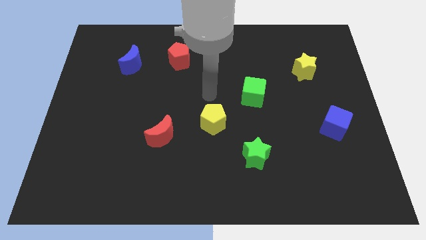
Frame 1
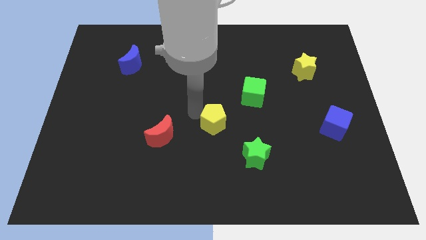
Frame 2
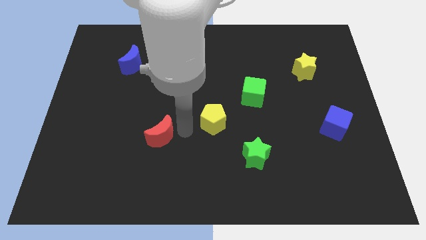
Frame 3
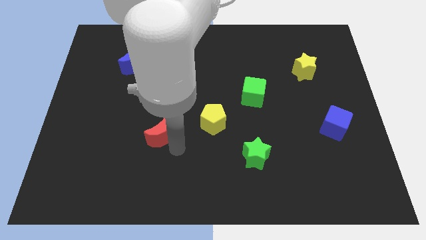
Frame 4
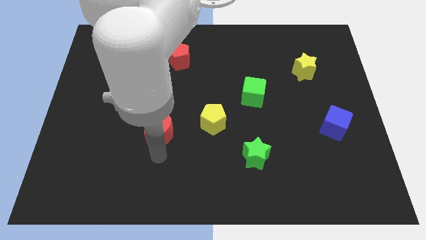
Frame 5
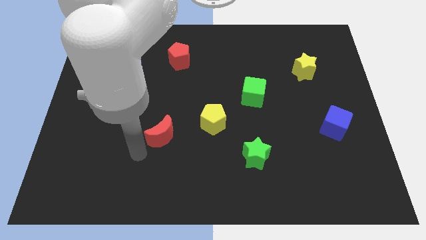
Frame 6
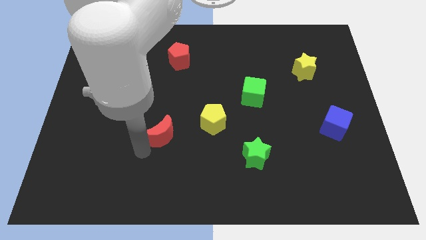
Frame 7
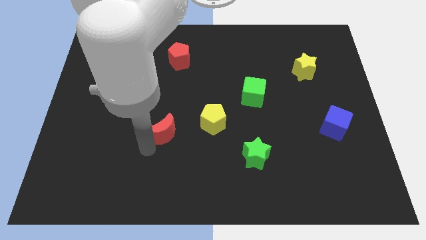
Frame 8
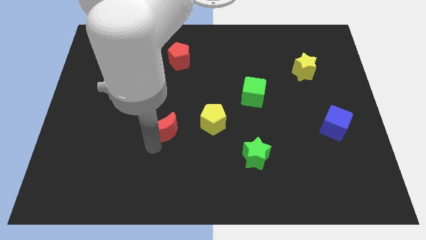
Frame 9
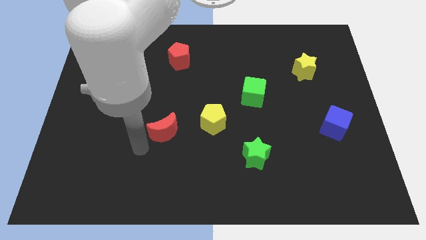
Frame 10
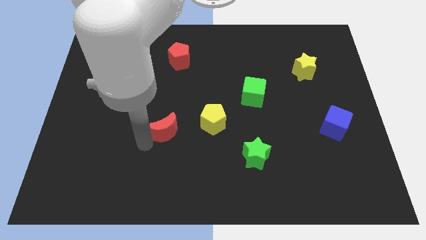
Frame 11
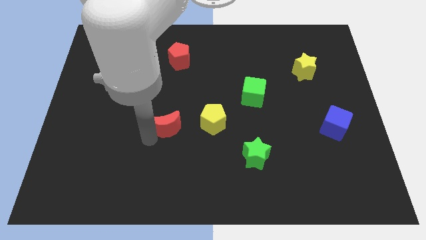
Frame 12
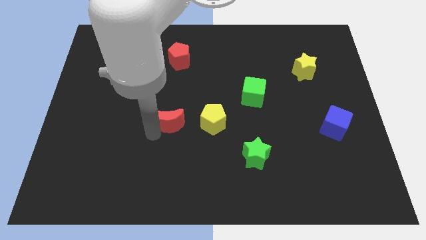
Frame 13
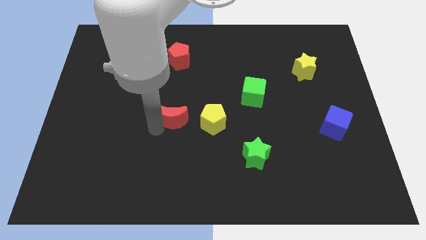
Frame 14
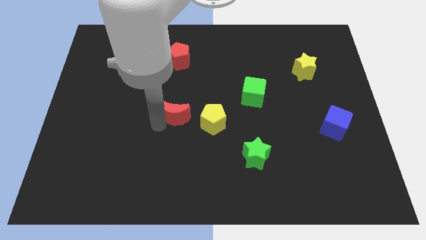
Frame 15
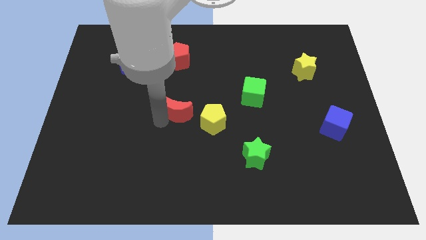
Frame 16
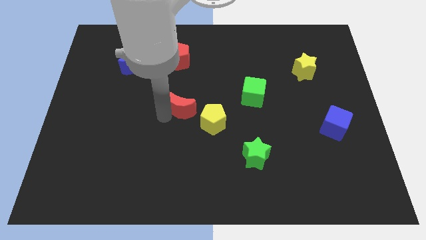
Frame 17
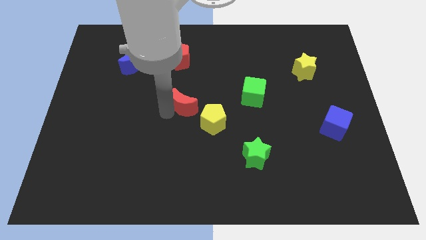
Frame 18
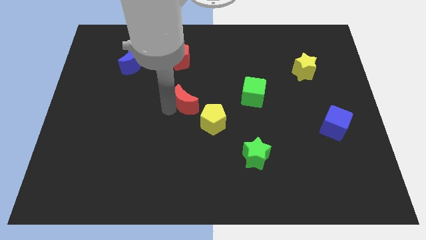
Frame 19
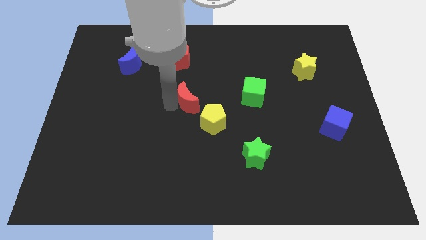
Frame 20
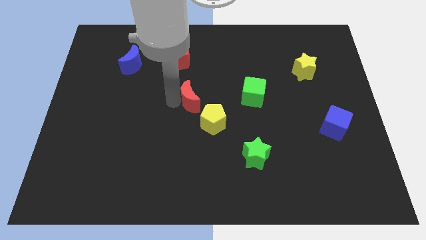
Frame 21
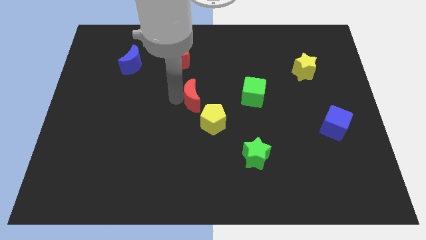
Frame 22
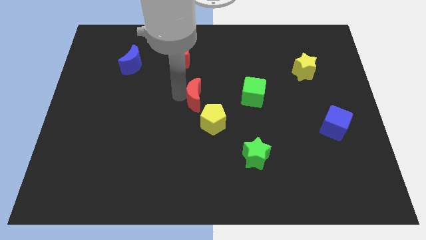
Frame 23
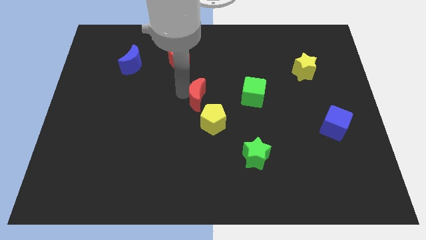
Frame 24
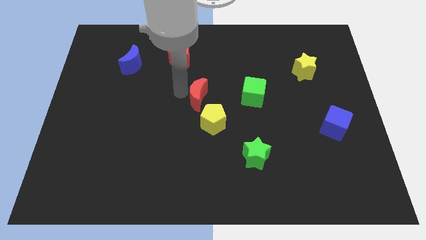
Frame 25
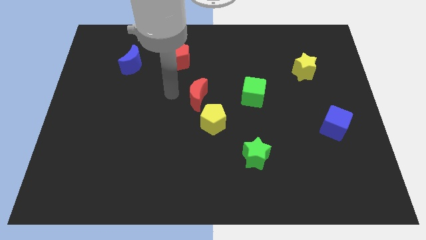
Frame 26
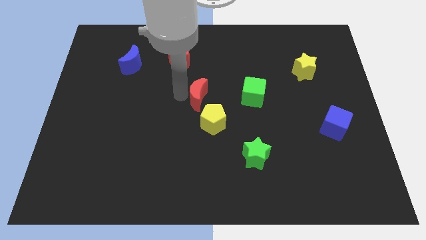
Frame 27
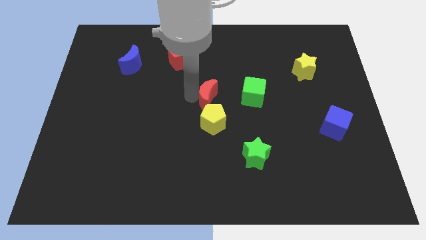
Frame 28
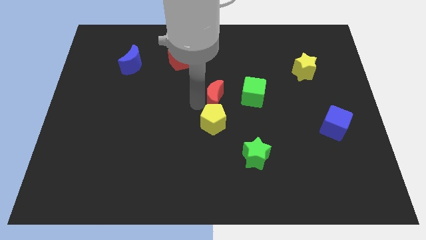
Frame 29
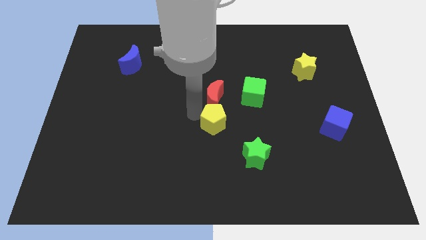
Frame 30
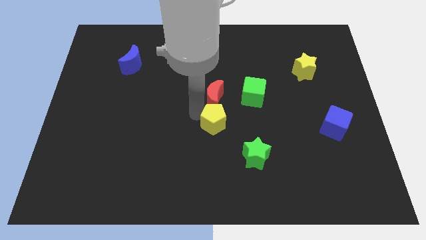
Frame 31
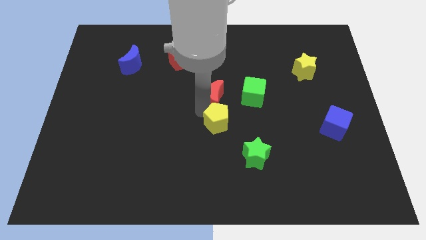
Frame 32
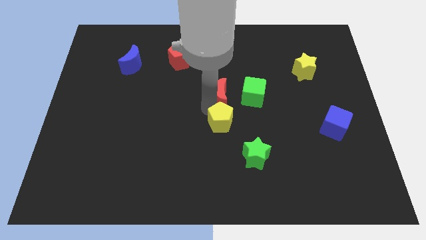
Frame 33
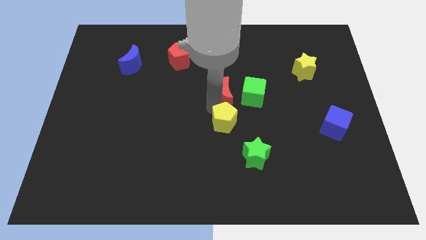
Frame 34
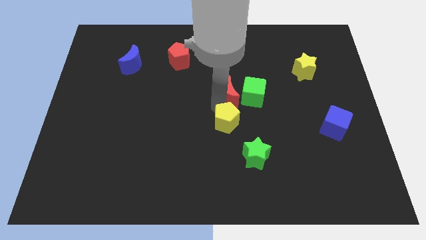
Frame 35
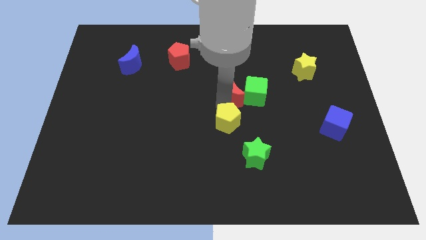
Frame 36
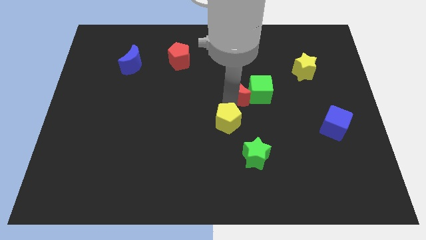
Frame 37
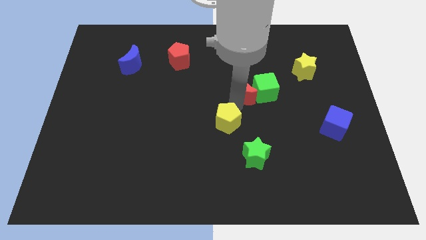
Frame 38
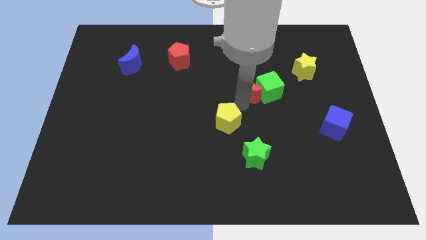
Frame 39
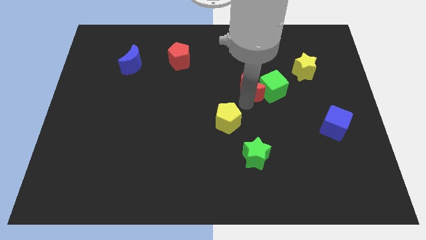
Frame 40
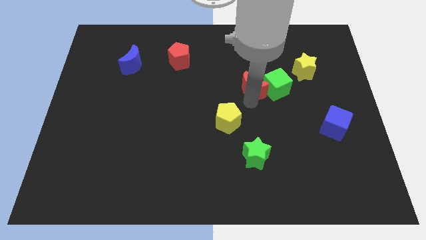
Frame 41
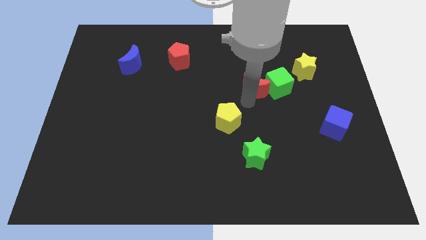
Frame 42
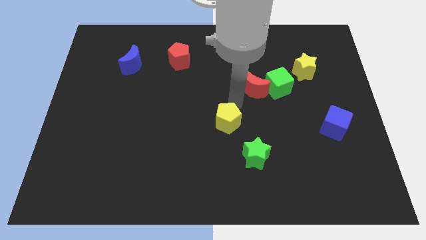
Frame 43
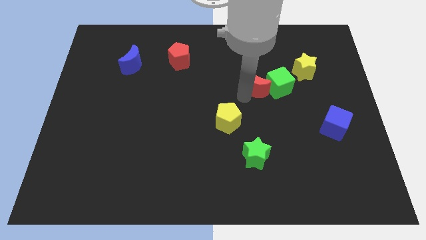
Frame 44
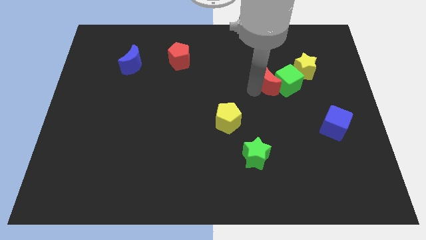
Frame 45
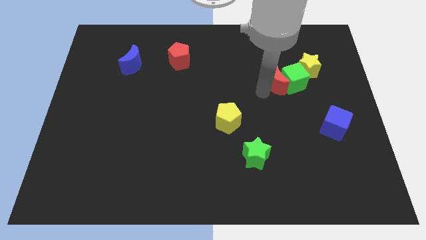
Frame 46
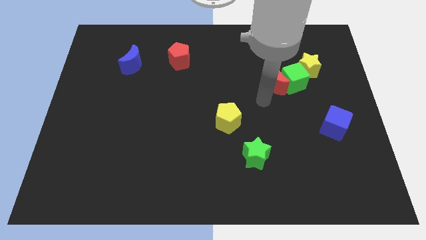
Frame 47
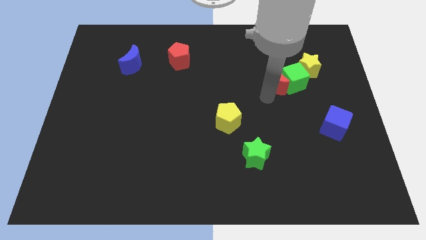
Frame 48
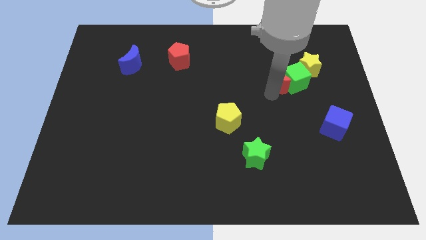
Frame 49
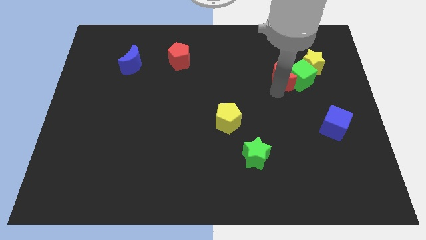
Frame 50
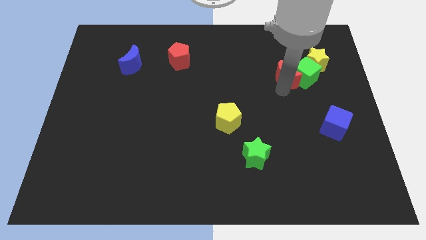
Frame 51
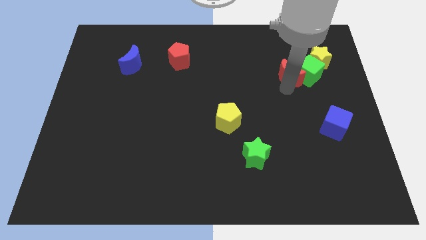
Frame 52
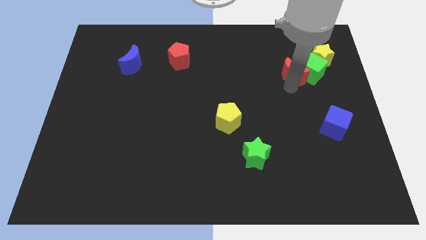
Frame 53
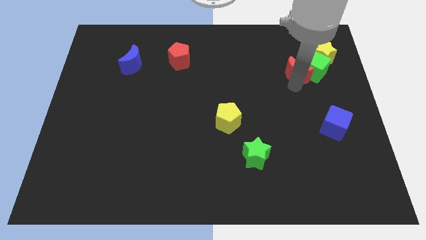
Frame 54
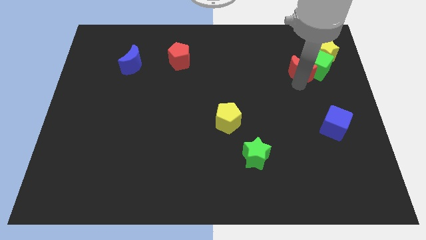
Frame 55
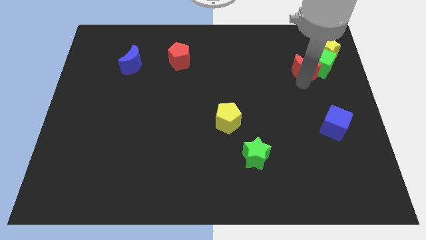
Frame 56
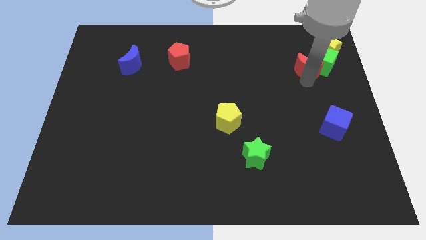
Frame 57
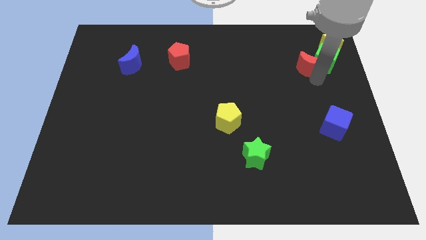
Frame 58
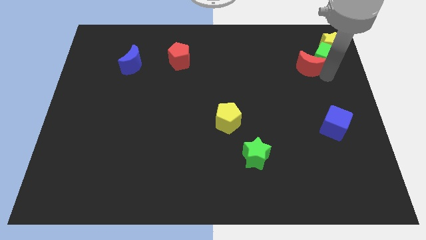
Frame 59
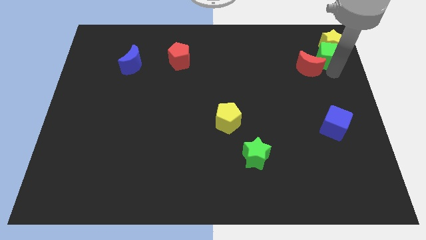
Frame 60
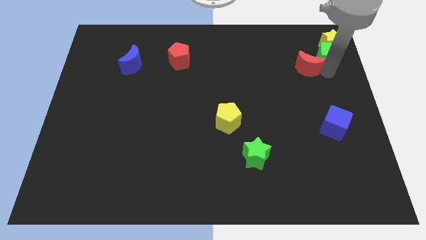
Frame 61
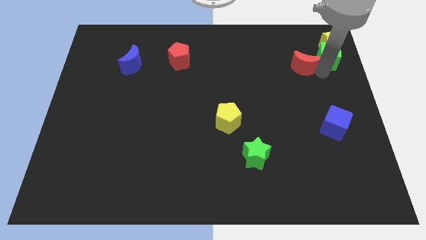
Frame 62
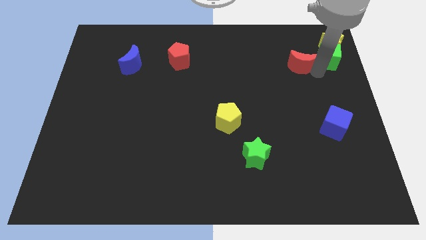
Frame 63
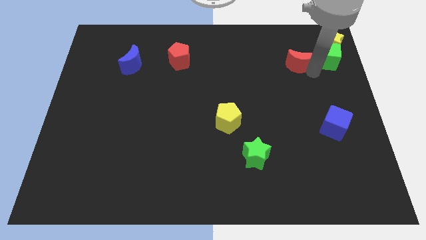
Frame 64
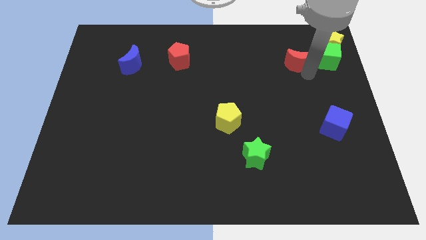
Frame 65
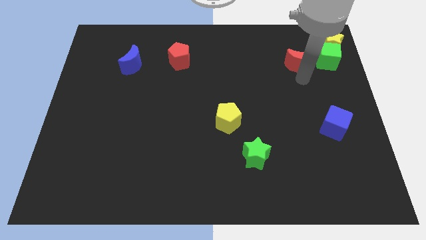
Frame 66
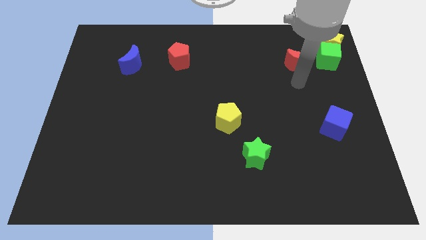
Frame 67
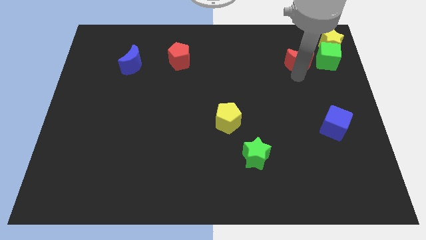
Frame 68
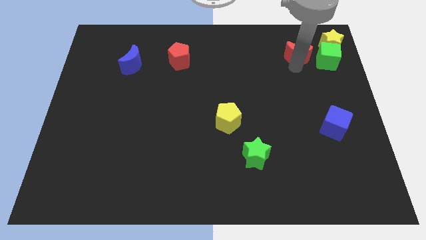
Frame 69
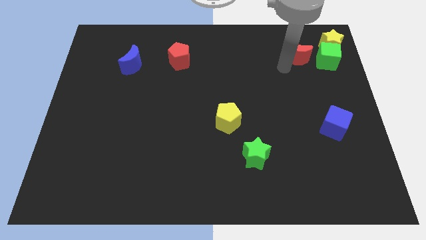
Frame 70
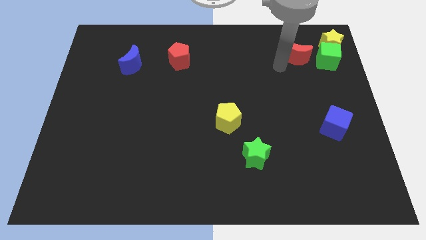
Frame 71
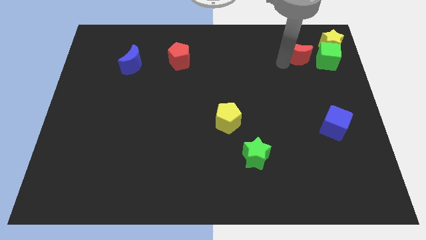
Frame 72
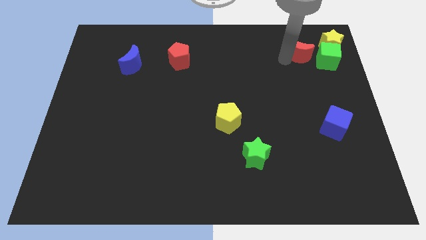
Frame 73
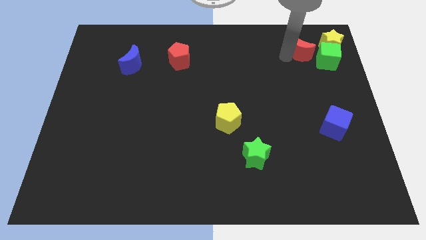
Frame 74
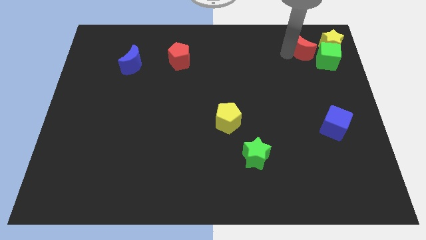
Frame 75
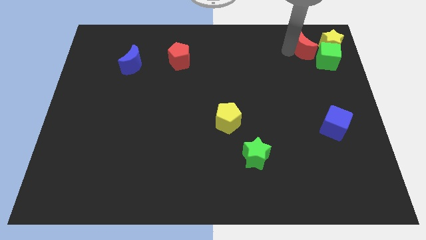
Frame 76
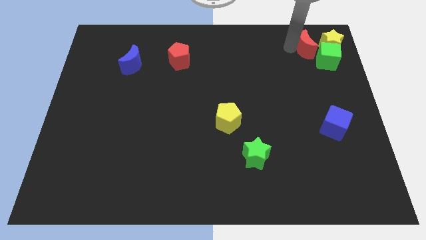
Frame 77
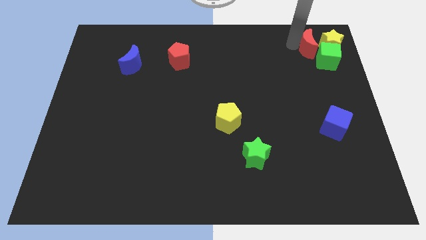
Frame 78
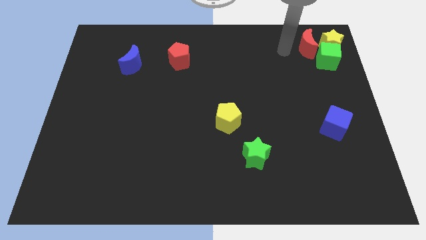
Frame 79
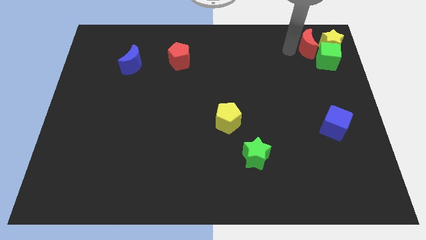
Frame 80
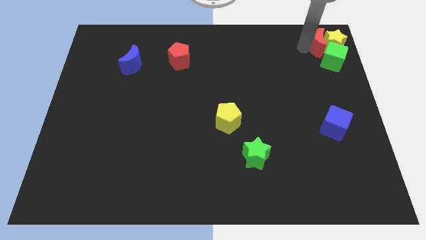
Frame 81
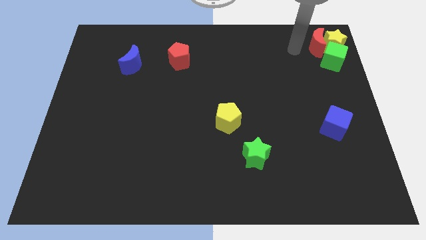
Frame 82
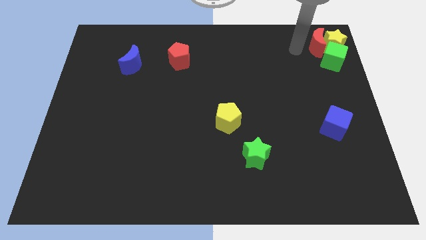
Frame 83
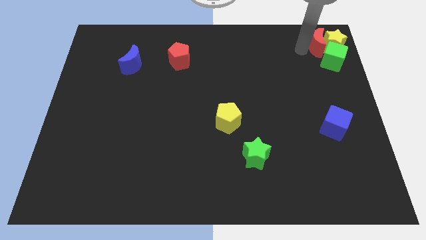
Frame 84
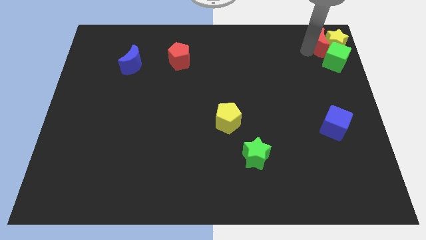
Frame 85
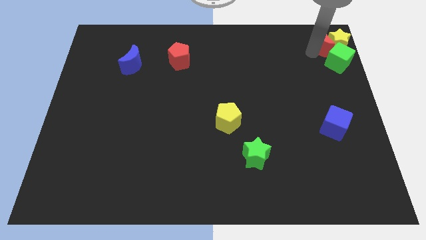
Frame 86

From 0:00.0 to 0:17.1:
push the red moon to the top right corner
